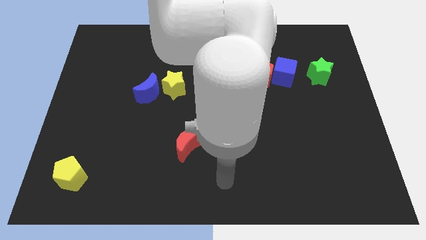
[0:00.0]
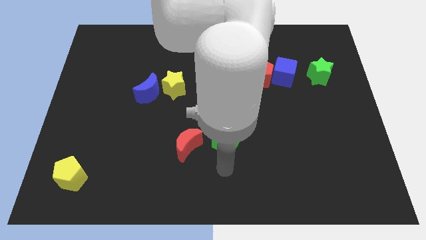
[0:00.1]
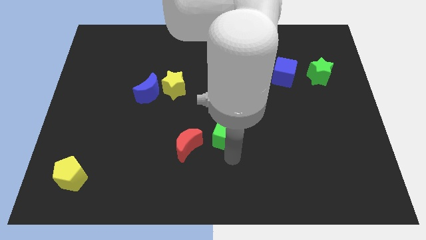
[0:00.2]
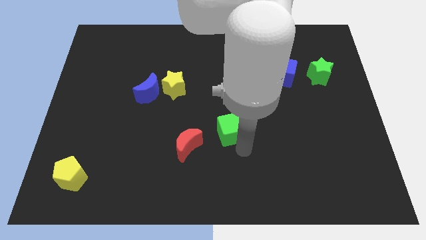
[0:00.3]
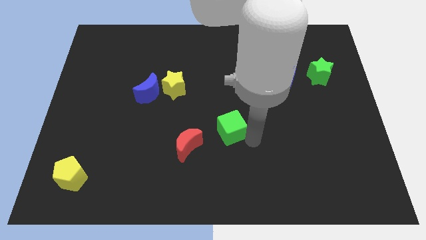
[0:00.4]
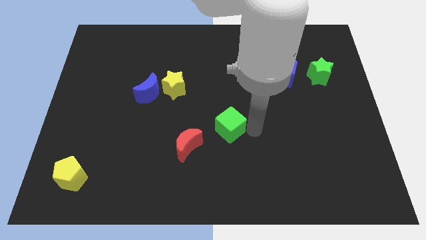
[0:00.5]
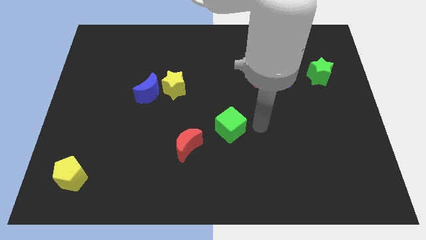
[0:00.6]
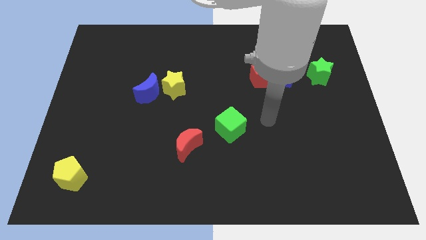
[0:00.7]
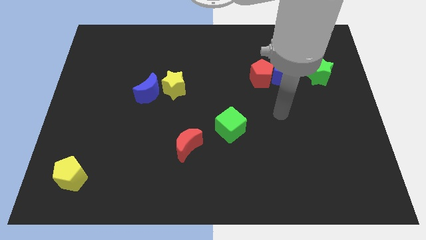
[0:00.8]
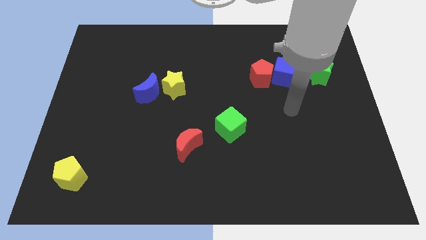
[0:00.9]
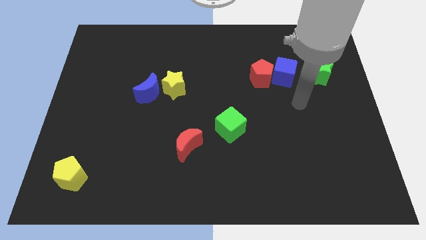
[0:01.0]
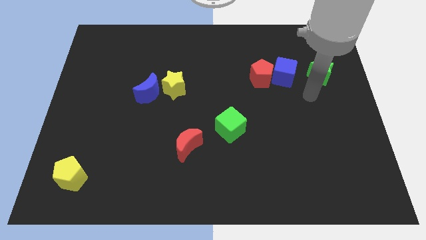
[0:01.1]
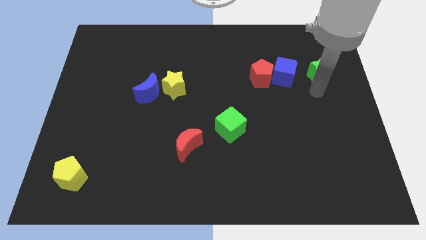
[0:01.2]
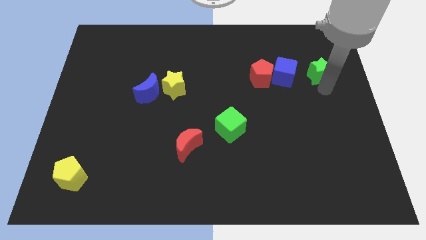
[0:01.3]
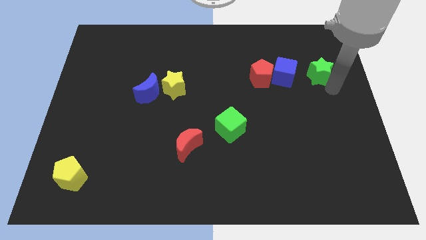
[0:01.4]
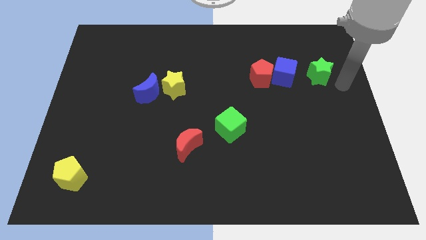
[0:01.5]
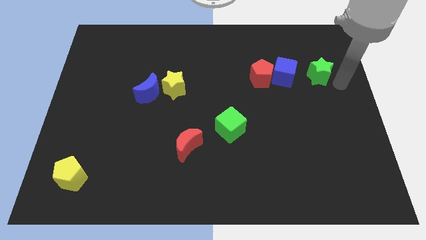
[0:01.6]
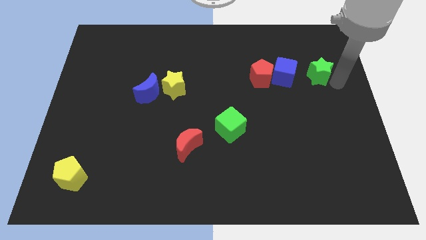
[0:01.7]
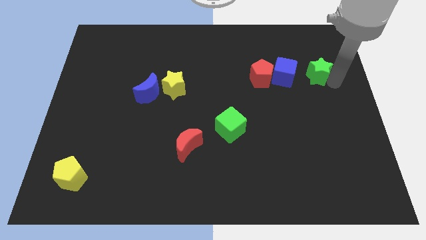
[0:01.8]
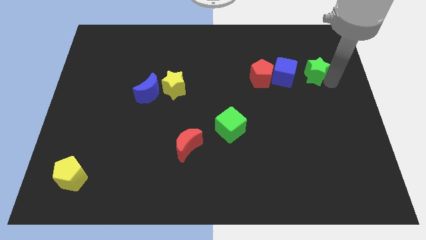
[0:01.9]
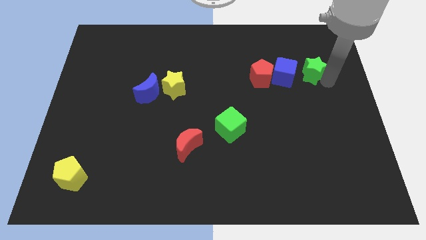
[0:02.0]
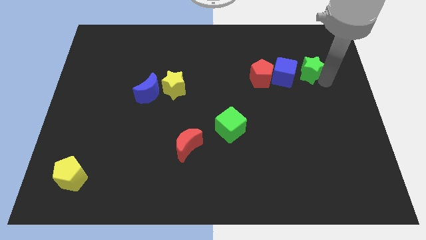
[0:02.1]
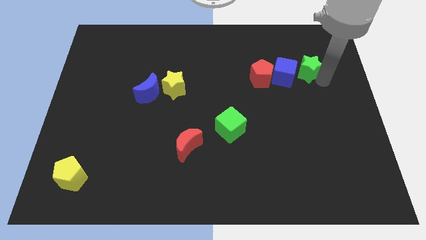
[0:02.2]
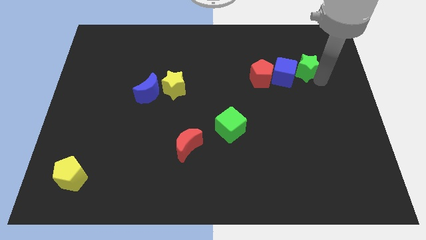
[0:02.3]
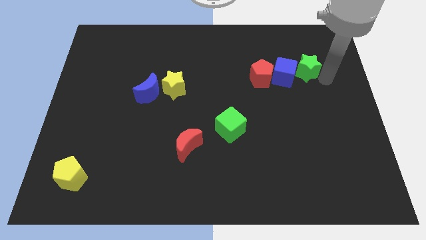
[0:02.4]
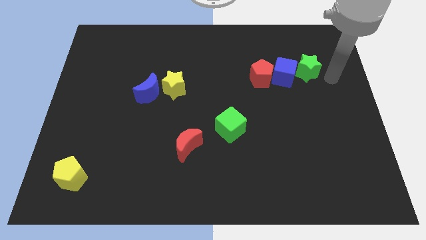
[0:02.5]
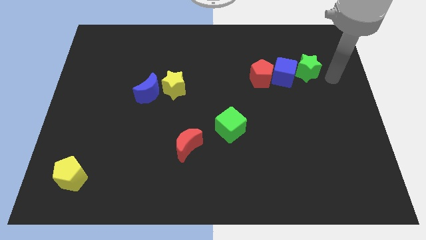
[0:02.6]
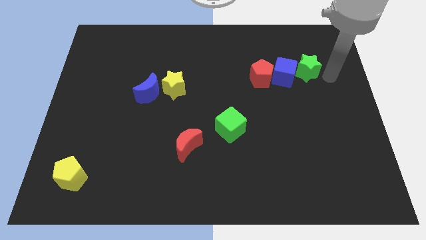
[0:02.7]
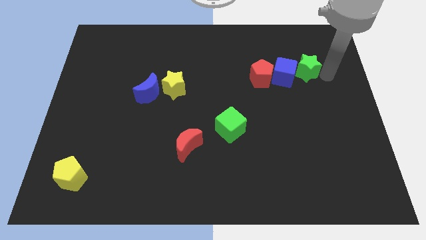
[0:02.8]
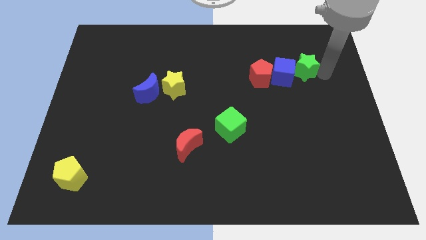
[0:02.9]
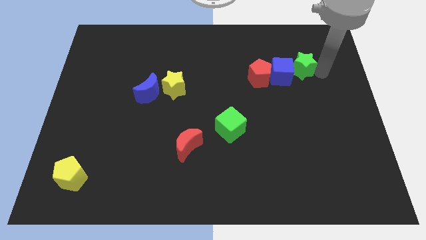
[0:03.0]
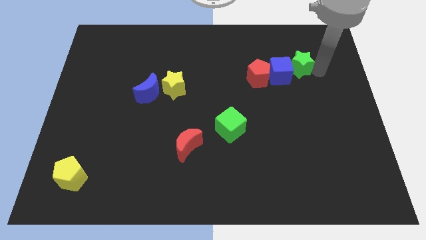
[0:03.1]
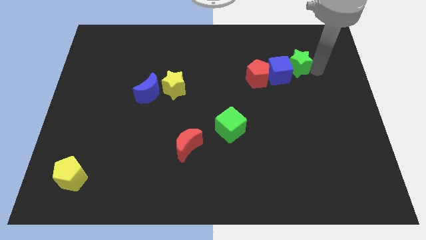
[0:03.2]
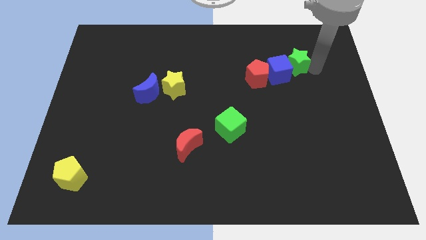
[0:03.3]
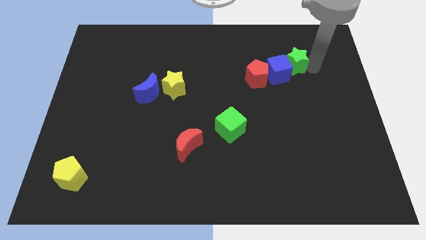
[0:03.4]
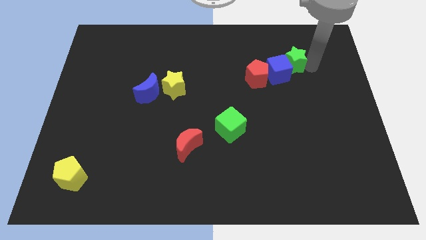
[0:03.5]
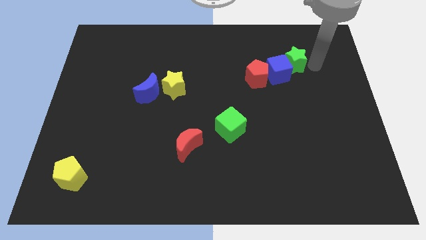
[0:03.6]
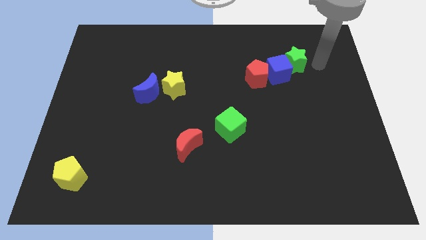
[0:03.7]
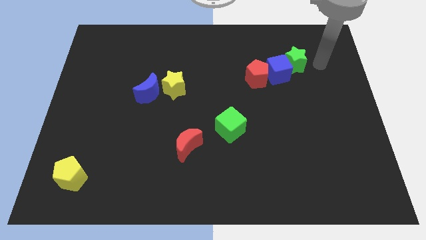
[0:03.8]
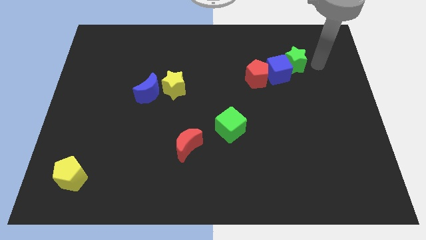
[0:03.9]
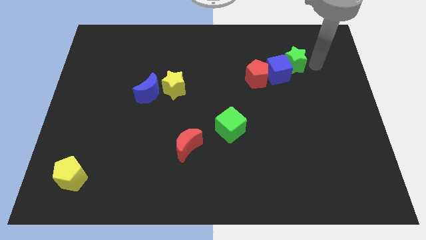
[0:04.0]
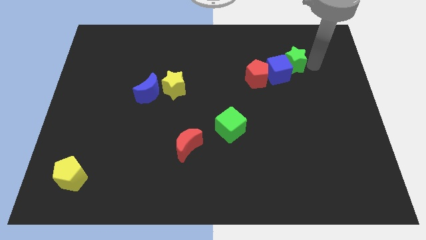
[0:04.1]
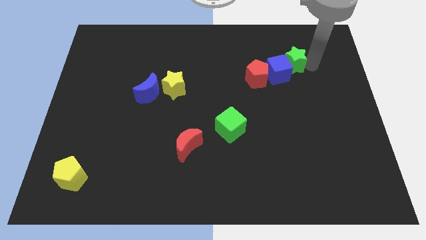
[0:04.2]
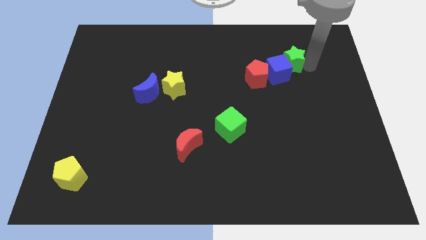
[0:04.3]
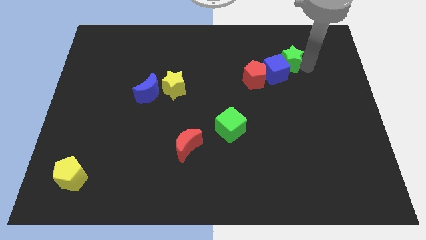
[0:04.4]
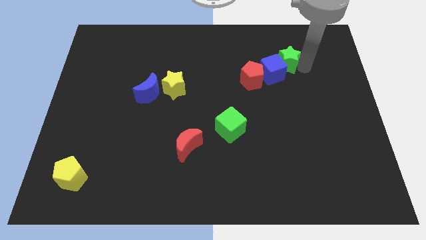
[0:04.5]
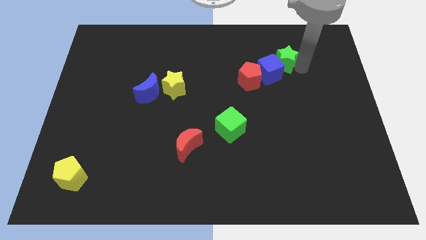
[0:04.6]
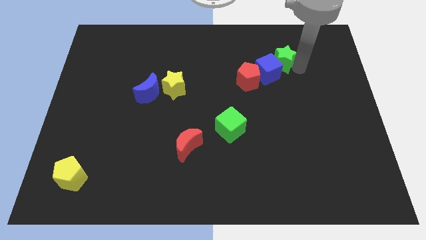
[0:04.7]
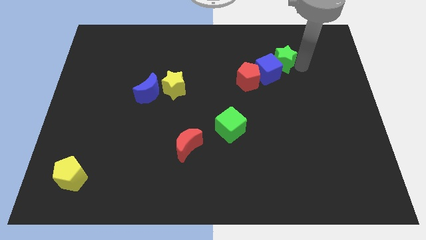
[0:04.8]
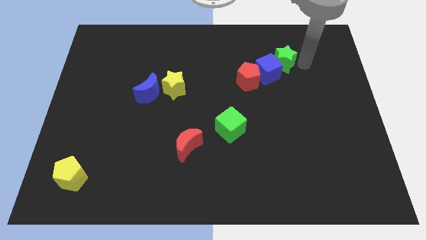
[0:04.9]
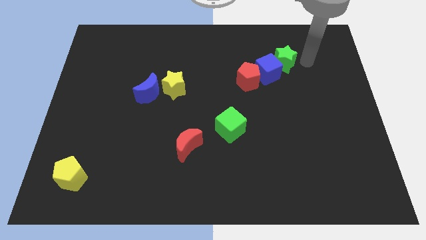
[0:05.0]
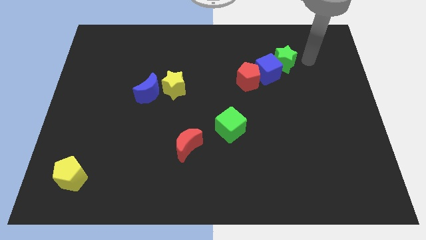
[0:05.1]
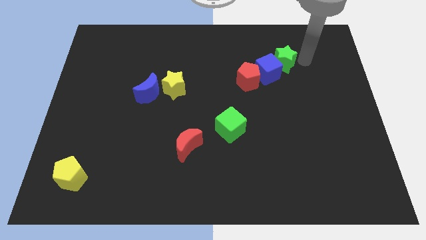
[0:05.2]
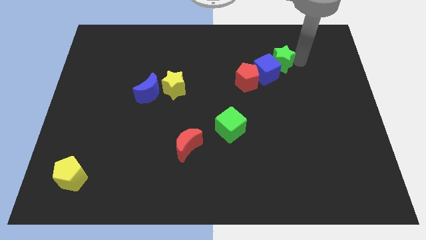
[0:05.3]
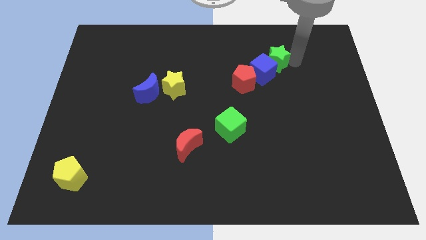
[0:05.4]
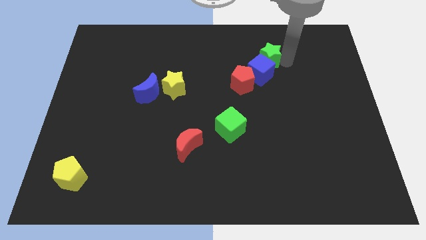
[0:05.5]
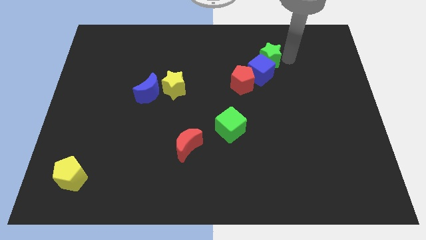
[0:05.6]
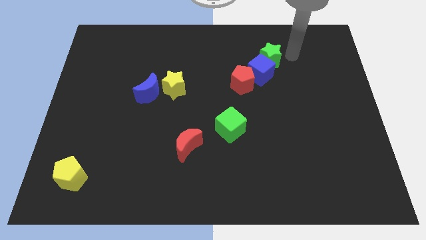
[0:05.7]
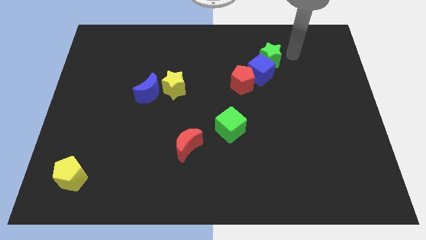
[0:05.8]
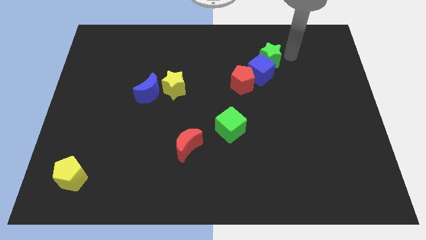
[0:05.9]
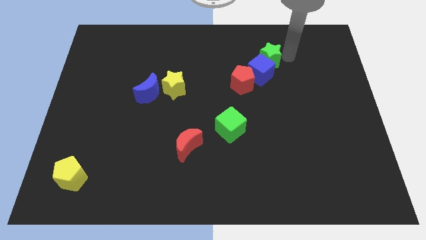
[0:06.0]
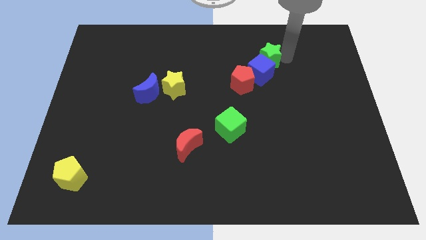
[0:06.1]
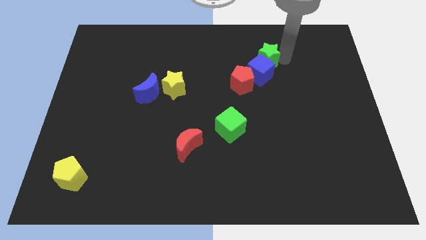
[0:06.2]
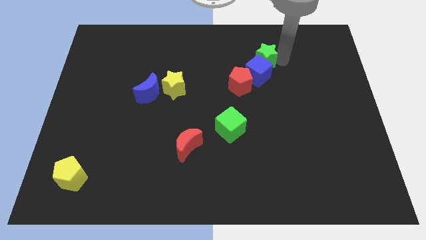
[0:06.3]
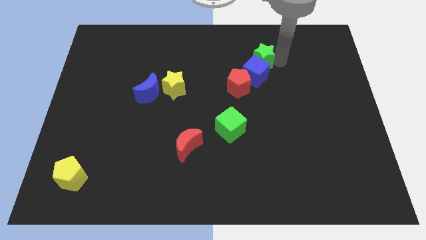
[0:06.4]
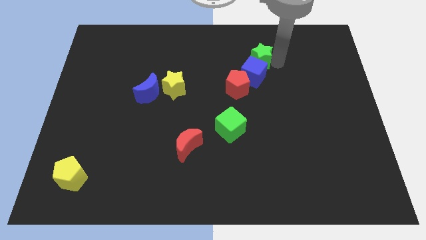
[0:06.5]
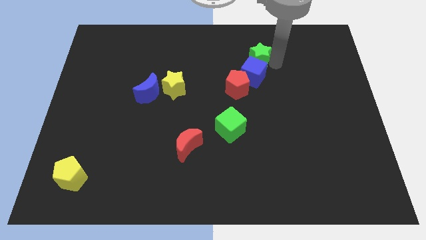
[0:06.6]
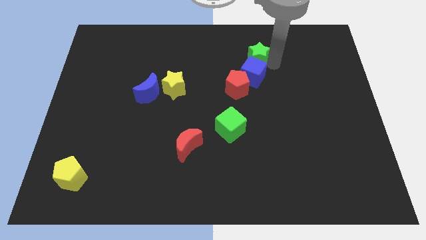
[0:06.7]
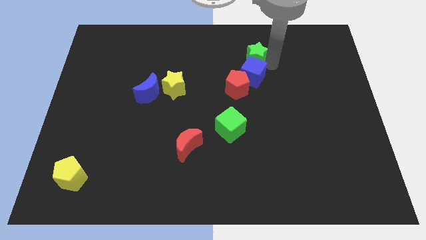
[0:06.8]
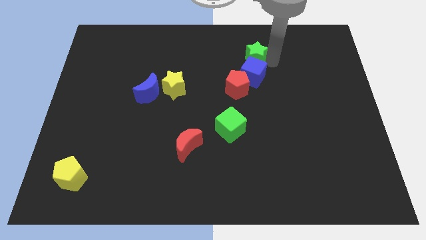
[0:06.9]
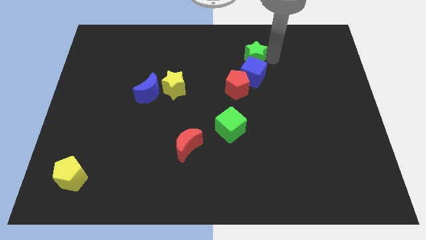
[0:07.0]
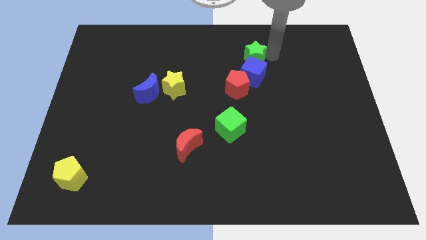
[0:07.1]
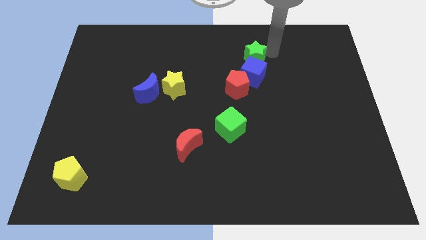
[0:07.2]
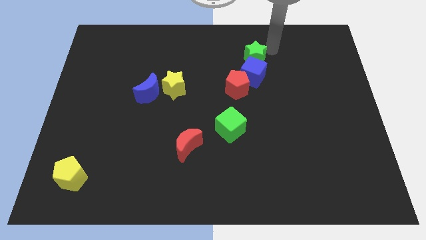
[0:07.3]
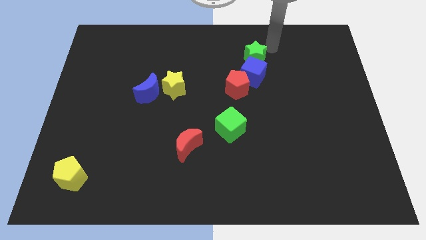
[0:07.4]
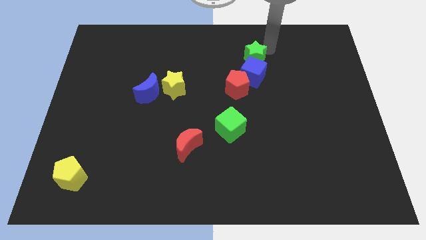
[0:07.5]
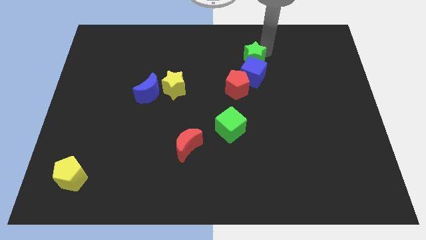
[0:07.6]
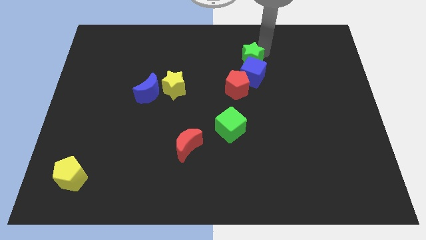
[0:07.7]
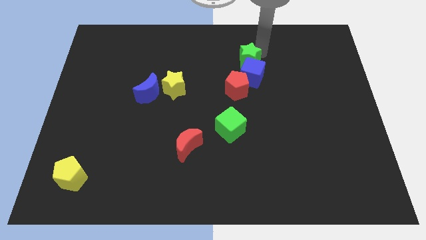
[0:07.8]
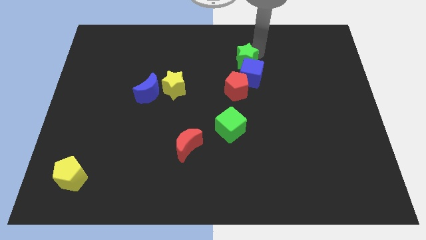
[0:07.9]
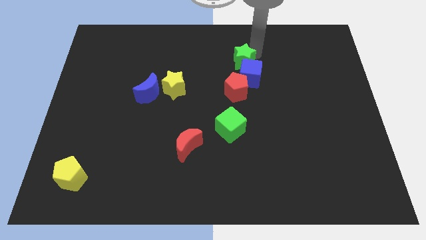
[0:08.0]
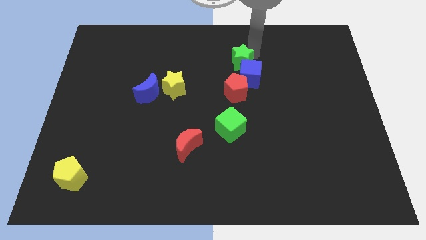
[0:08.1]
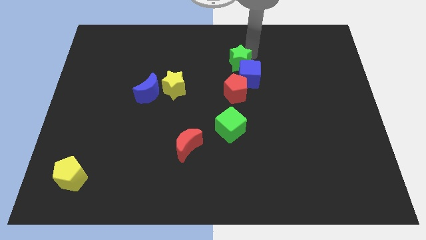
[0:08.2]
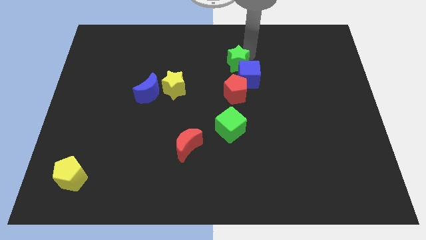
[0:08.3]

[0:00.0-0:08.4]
move the green star left

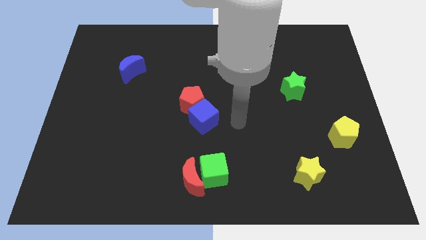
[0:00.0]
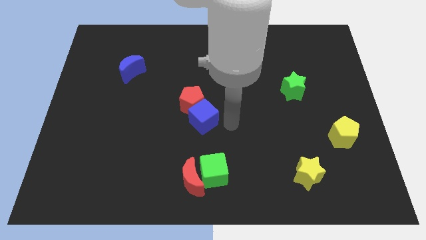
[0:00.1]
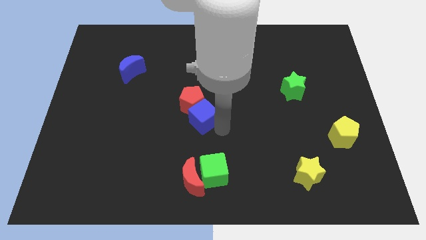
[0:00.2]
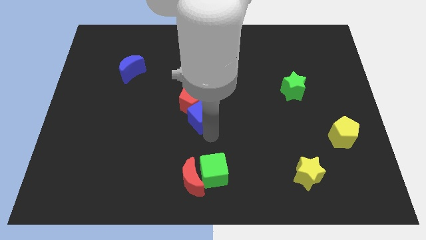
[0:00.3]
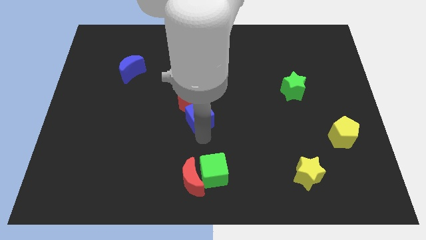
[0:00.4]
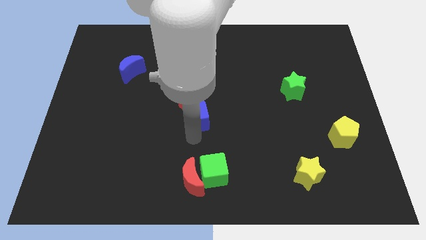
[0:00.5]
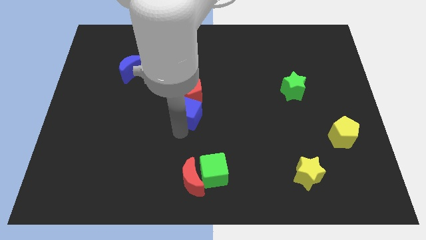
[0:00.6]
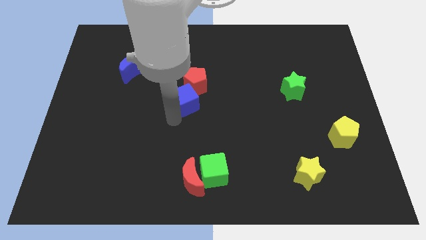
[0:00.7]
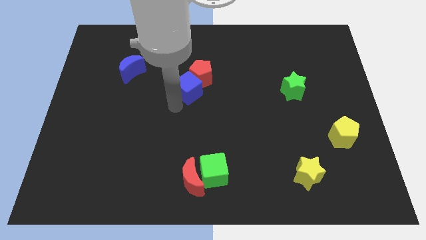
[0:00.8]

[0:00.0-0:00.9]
slightly slide the red pentagon upwards and right diagonally
